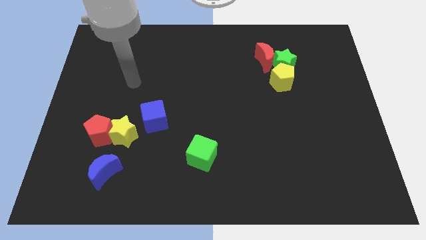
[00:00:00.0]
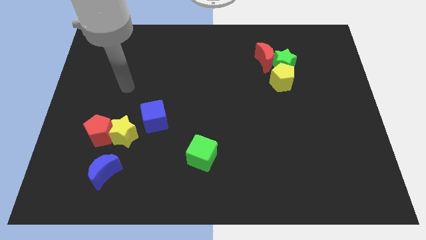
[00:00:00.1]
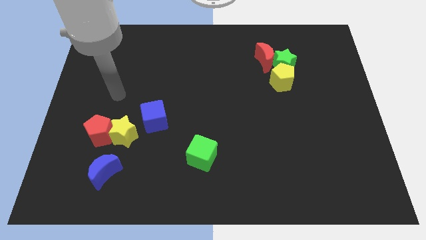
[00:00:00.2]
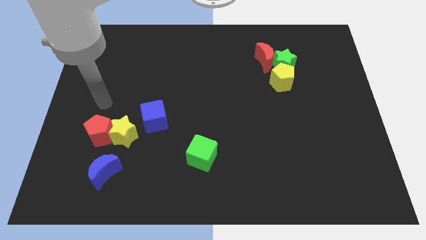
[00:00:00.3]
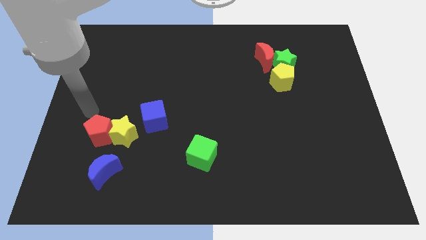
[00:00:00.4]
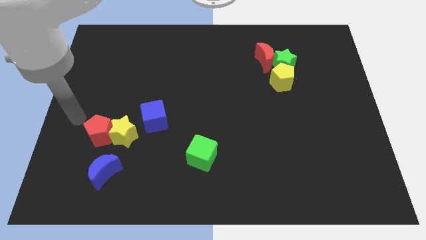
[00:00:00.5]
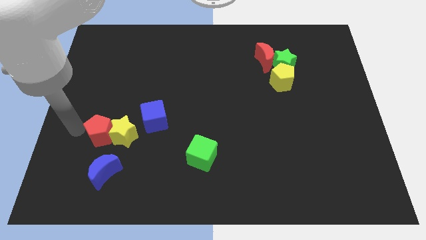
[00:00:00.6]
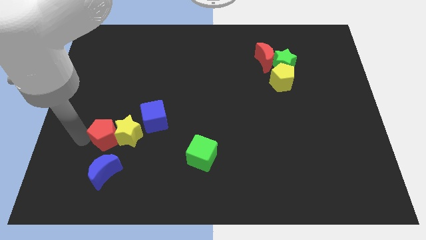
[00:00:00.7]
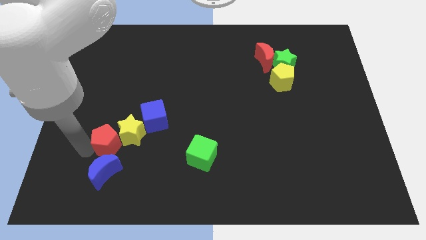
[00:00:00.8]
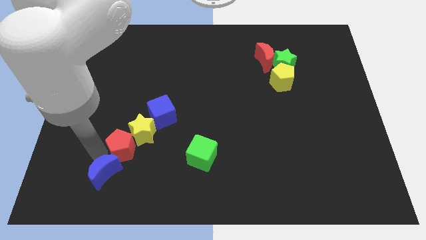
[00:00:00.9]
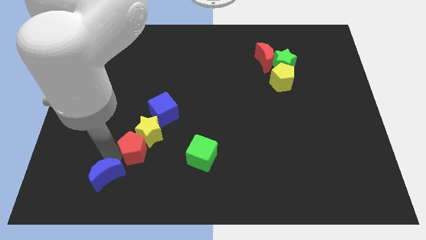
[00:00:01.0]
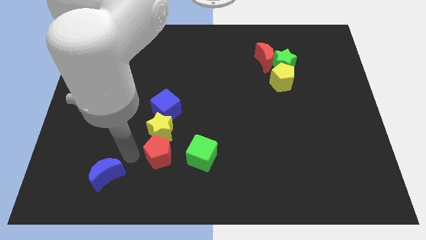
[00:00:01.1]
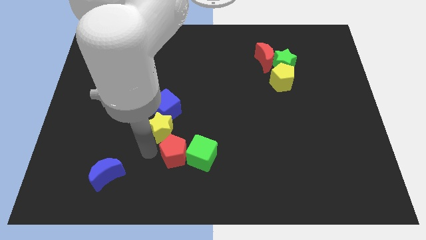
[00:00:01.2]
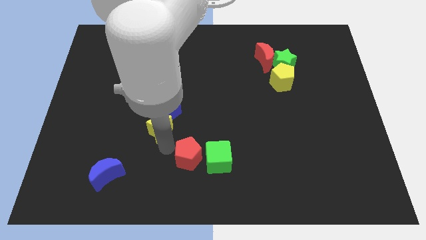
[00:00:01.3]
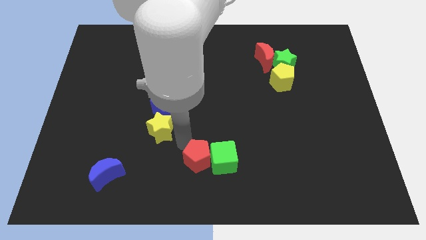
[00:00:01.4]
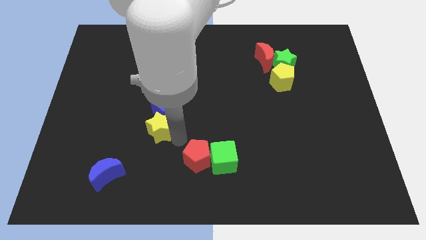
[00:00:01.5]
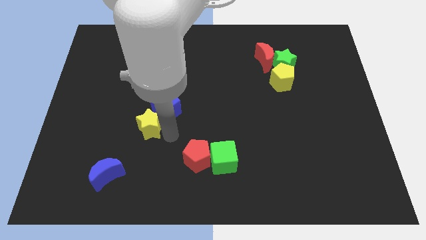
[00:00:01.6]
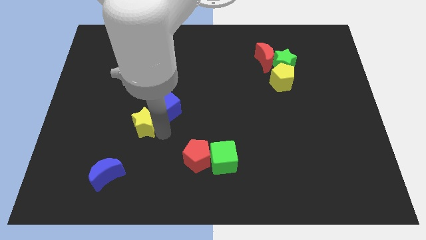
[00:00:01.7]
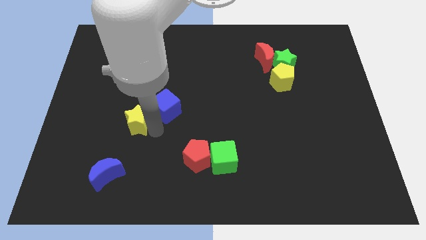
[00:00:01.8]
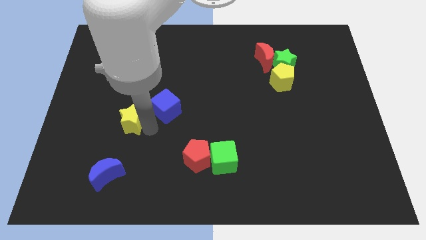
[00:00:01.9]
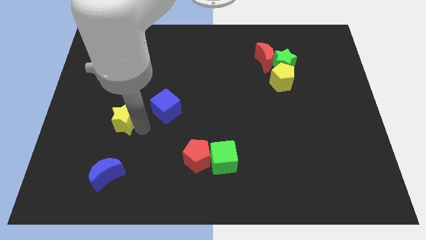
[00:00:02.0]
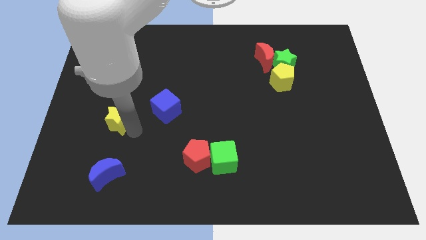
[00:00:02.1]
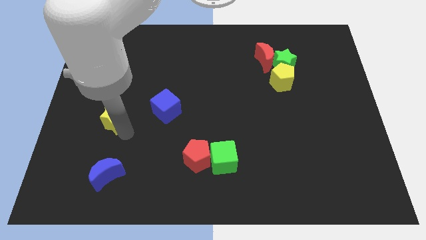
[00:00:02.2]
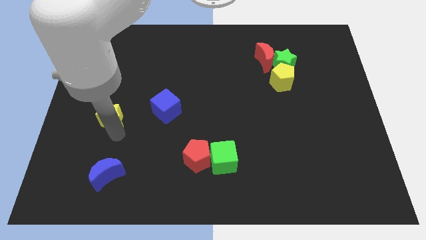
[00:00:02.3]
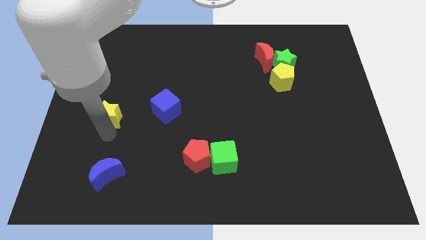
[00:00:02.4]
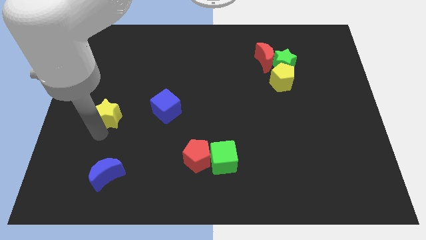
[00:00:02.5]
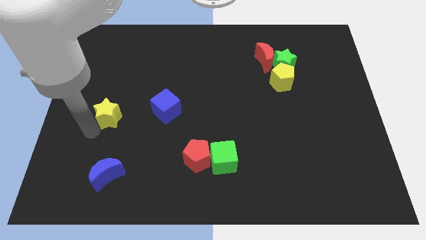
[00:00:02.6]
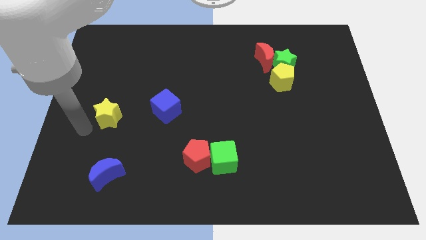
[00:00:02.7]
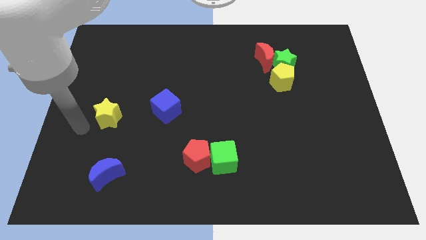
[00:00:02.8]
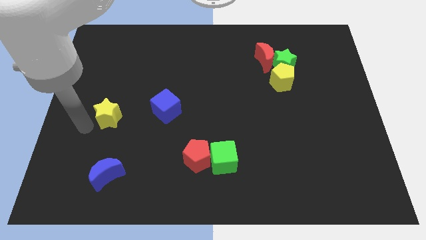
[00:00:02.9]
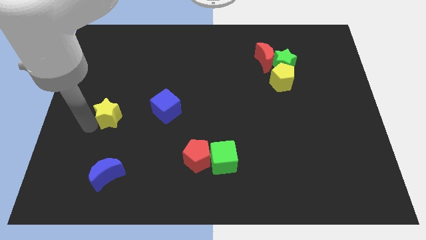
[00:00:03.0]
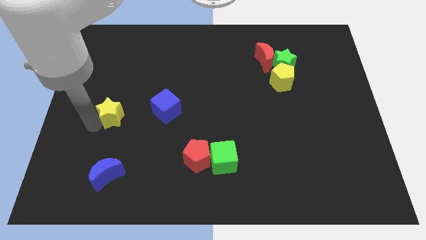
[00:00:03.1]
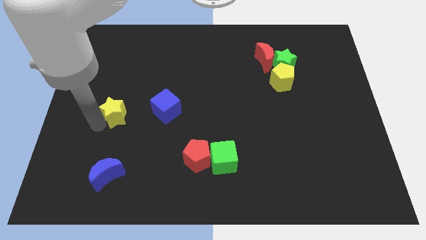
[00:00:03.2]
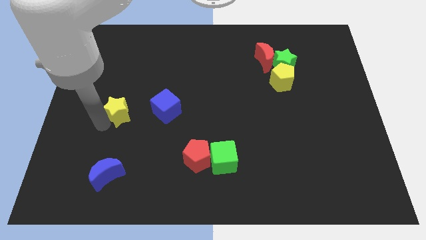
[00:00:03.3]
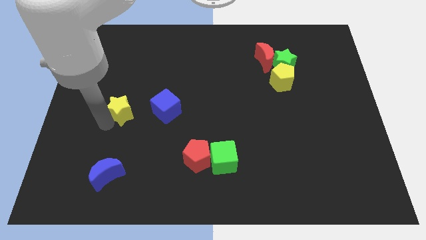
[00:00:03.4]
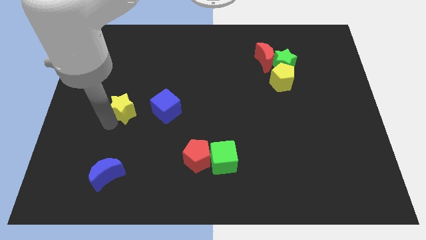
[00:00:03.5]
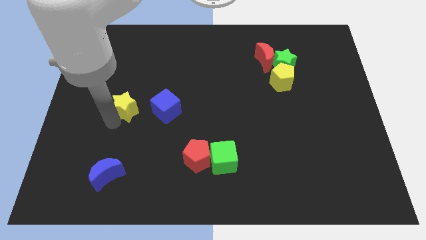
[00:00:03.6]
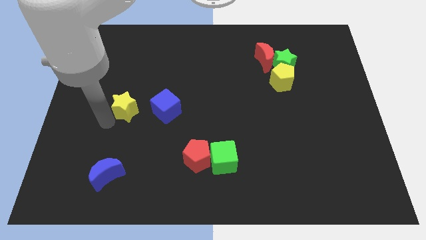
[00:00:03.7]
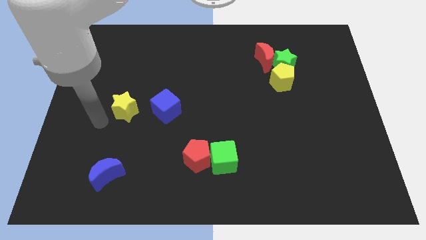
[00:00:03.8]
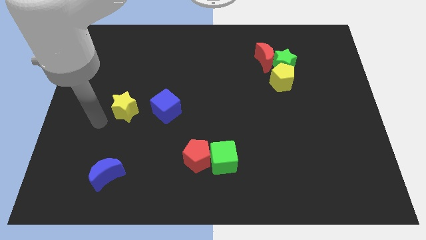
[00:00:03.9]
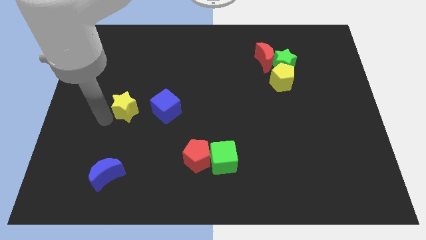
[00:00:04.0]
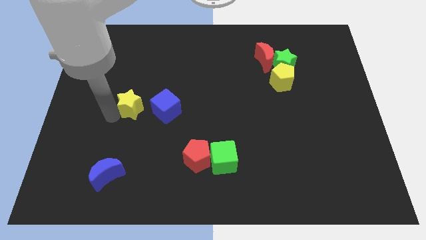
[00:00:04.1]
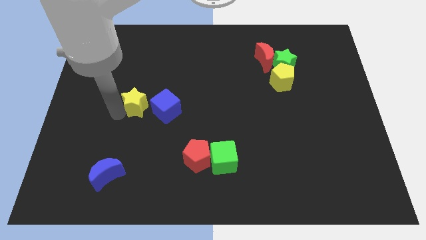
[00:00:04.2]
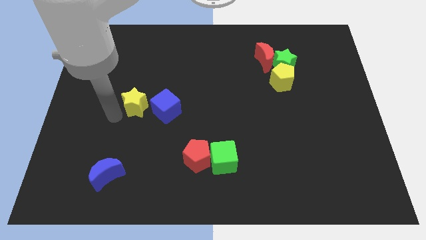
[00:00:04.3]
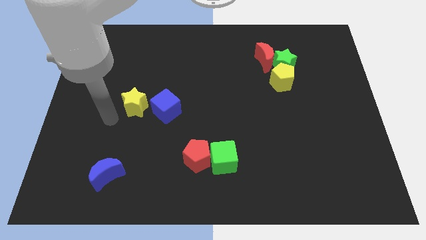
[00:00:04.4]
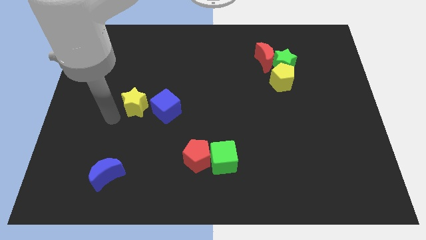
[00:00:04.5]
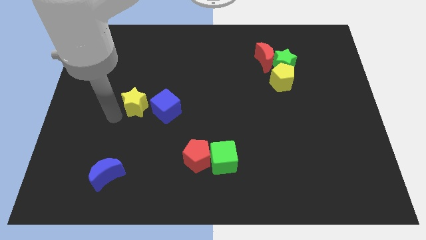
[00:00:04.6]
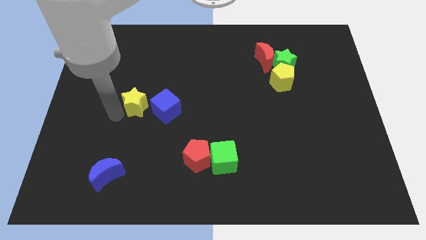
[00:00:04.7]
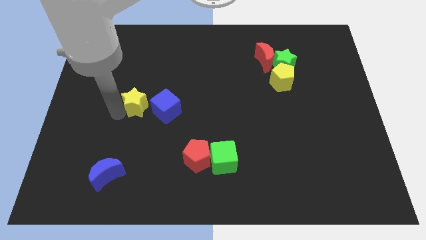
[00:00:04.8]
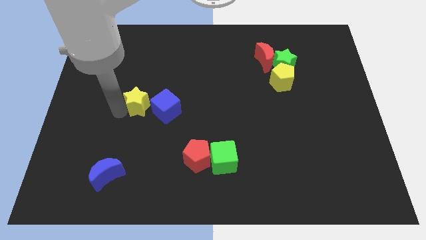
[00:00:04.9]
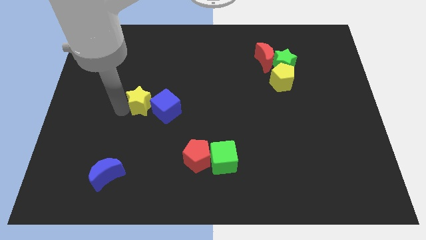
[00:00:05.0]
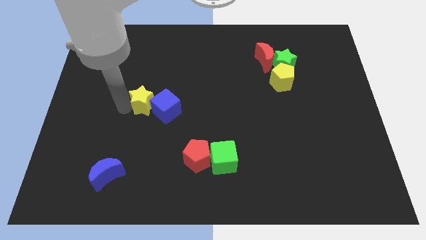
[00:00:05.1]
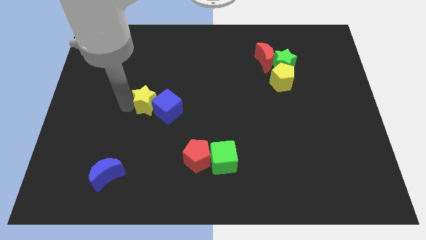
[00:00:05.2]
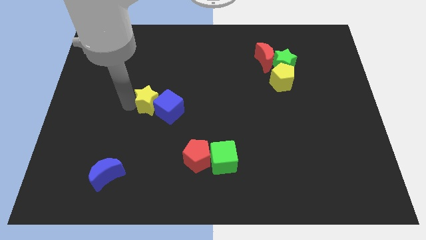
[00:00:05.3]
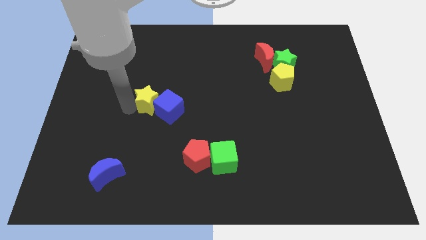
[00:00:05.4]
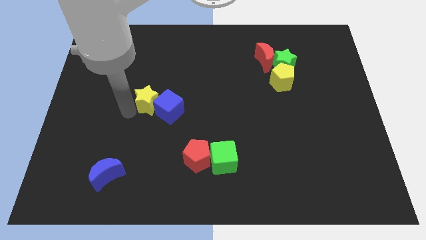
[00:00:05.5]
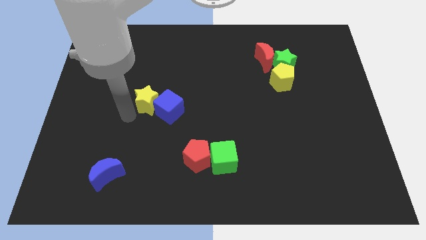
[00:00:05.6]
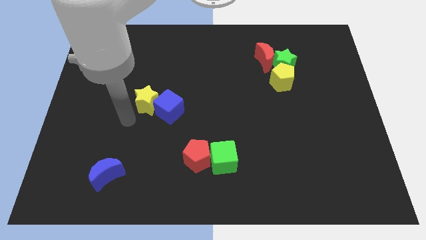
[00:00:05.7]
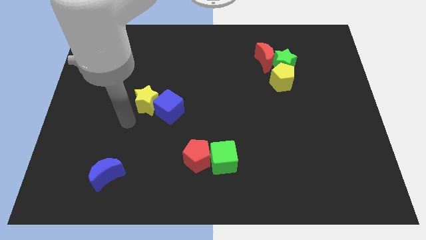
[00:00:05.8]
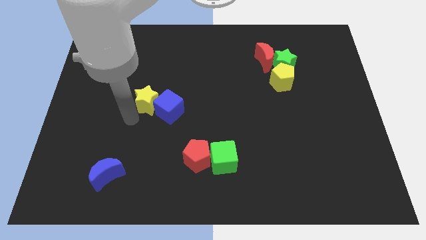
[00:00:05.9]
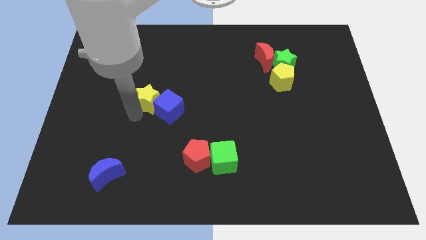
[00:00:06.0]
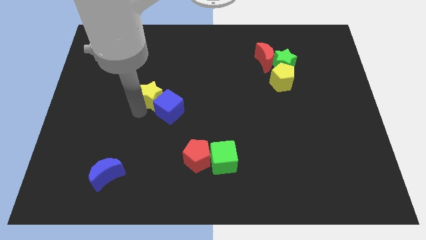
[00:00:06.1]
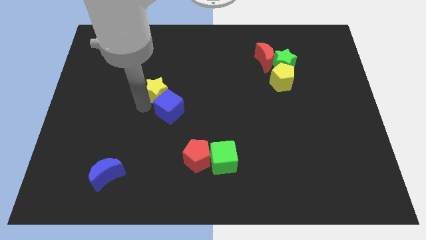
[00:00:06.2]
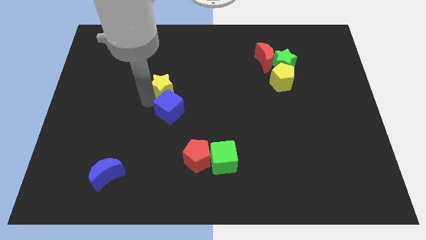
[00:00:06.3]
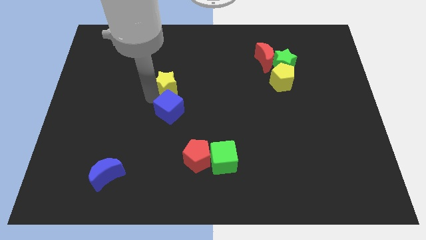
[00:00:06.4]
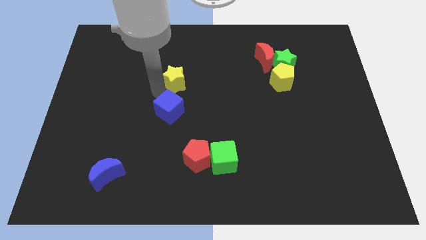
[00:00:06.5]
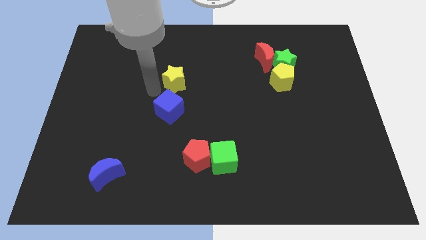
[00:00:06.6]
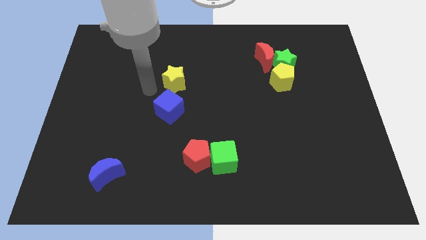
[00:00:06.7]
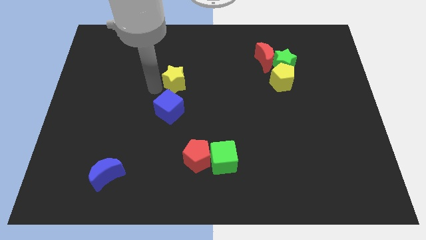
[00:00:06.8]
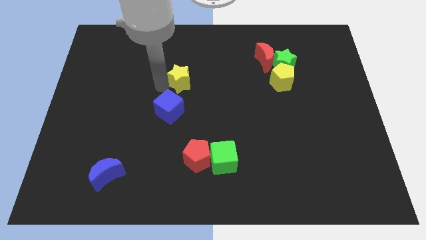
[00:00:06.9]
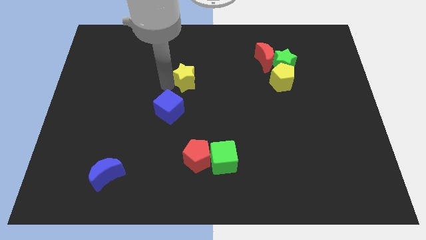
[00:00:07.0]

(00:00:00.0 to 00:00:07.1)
move the yellow star up and to the right

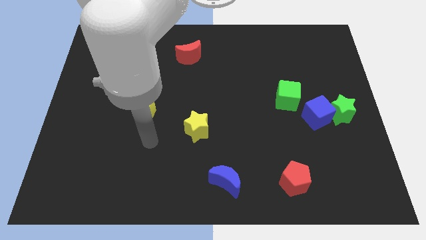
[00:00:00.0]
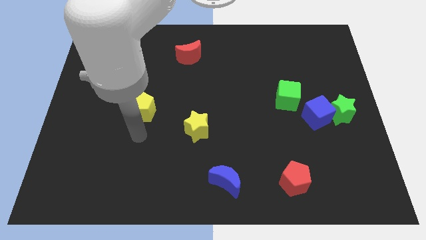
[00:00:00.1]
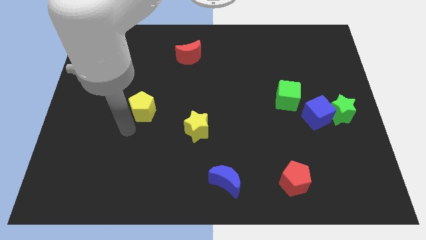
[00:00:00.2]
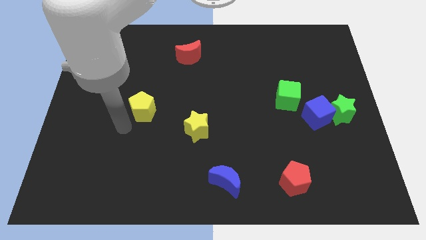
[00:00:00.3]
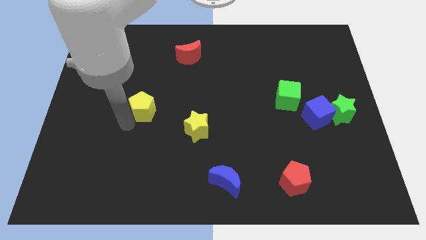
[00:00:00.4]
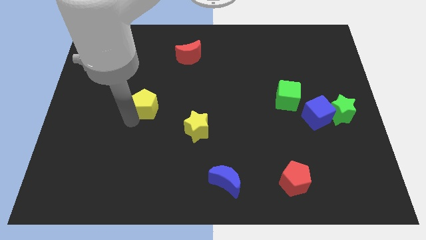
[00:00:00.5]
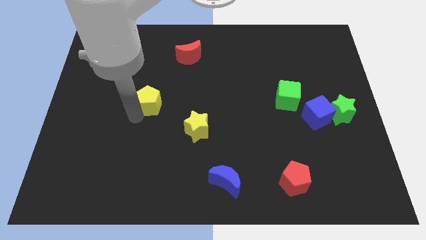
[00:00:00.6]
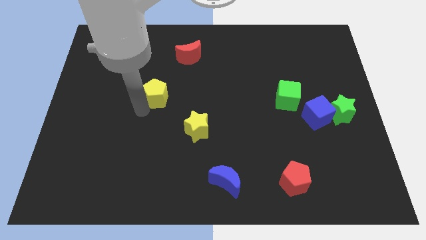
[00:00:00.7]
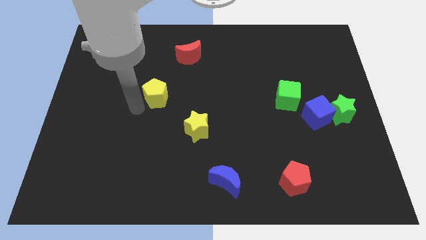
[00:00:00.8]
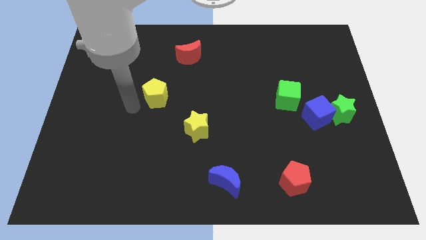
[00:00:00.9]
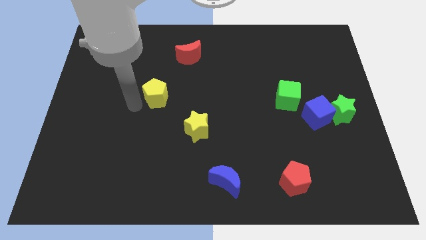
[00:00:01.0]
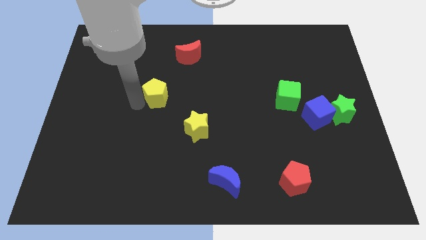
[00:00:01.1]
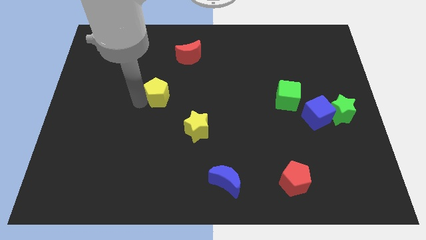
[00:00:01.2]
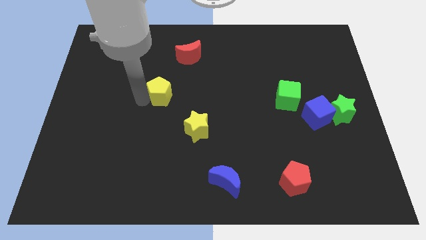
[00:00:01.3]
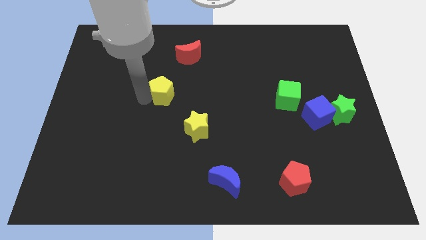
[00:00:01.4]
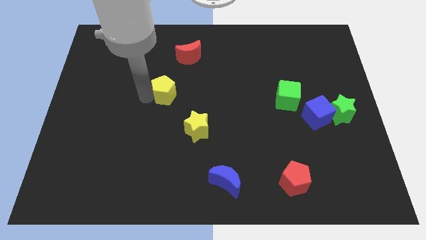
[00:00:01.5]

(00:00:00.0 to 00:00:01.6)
move the yellow pentagon upwards and right diagonally somewhat
